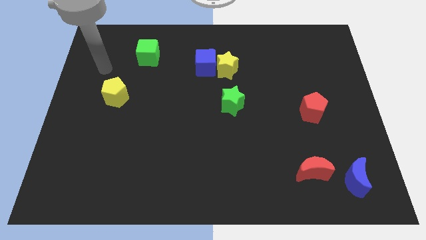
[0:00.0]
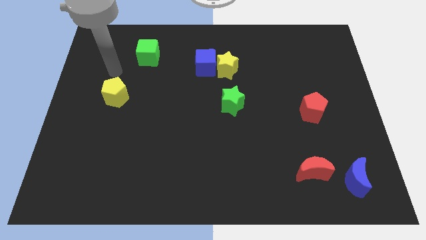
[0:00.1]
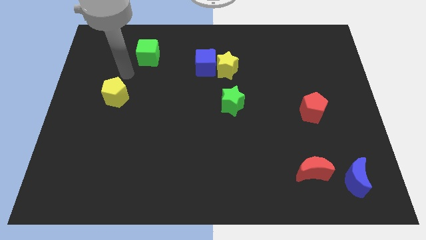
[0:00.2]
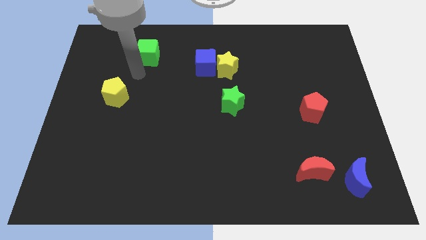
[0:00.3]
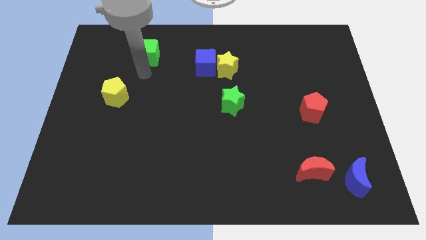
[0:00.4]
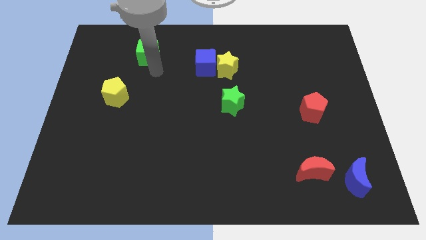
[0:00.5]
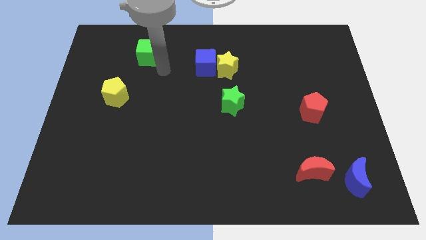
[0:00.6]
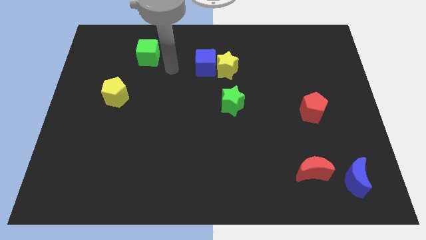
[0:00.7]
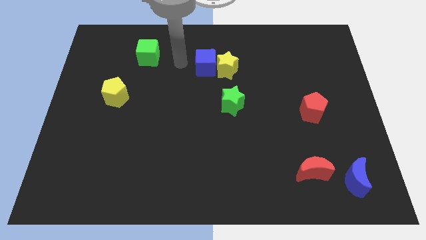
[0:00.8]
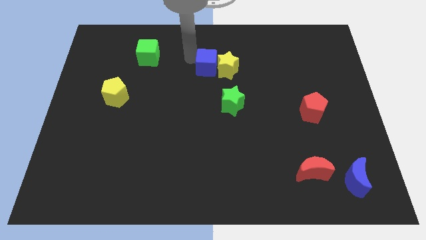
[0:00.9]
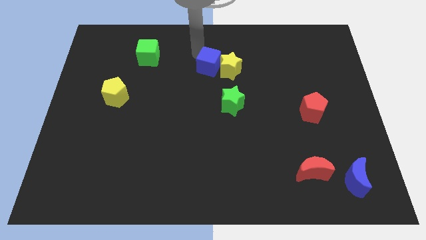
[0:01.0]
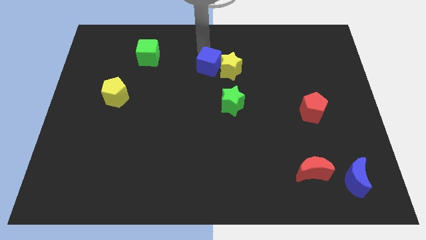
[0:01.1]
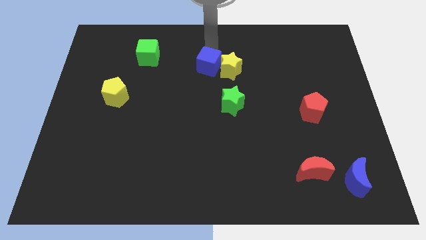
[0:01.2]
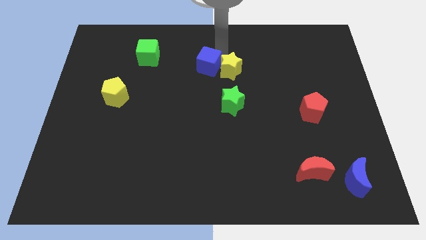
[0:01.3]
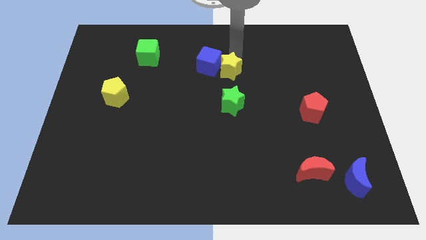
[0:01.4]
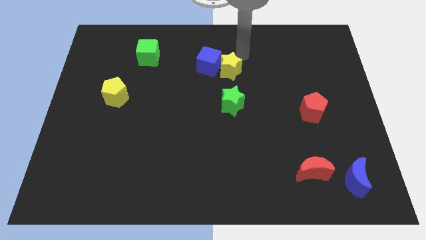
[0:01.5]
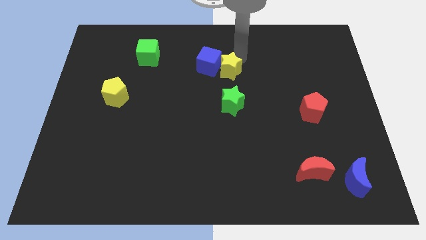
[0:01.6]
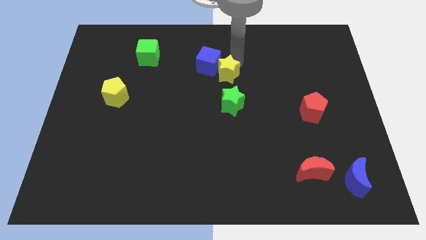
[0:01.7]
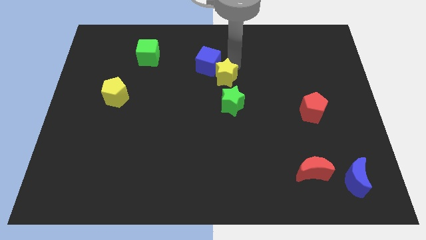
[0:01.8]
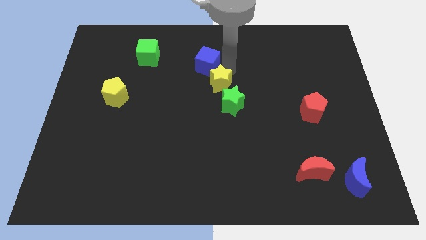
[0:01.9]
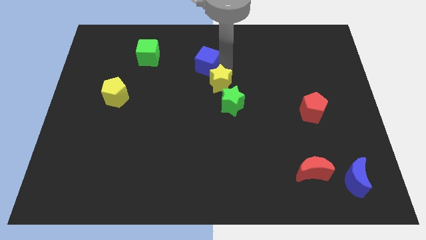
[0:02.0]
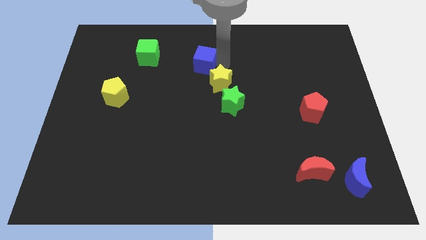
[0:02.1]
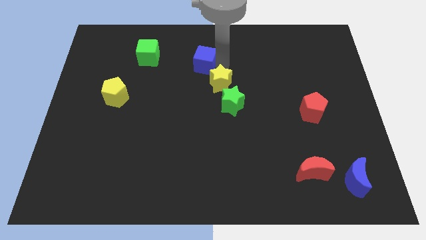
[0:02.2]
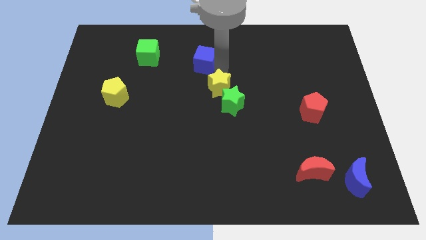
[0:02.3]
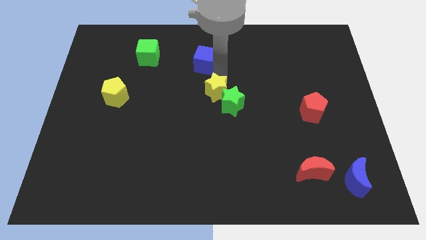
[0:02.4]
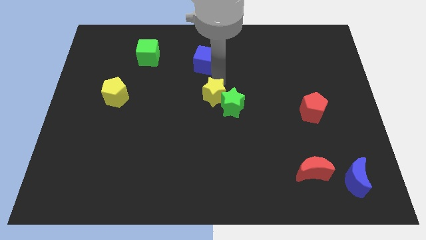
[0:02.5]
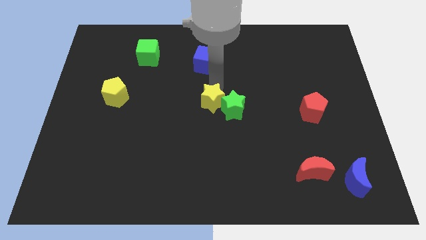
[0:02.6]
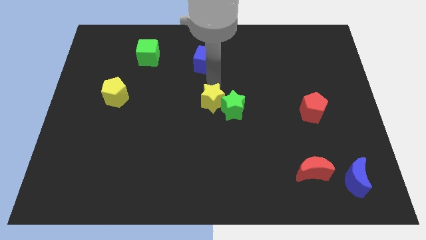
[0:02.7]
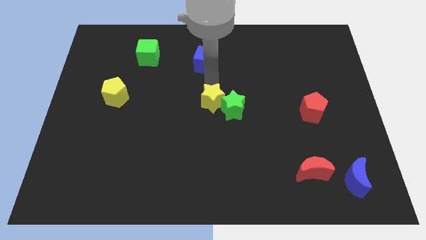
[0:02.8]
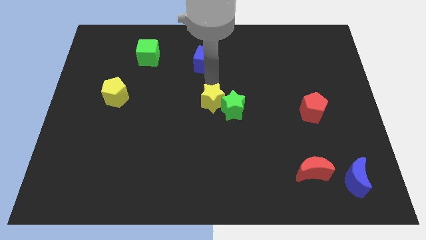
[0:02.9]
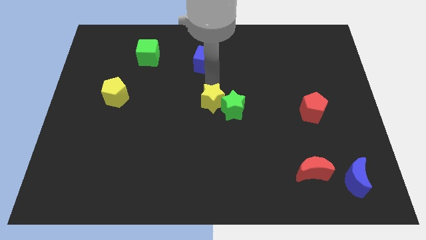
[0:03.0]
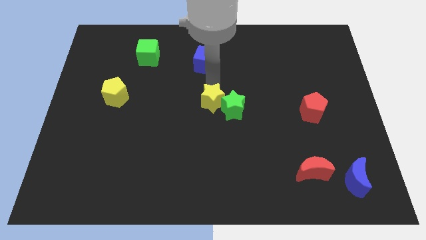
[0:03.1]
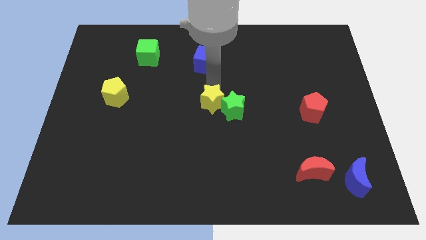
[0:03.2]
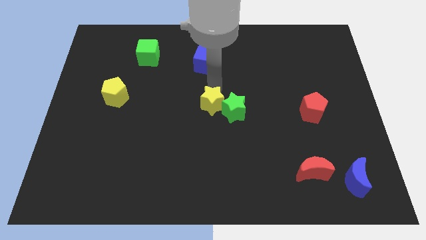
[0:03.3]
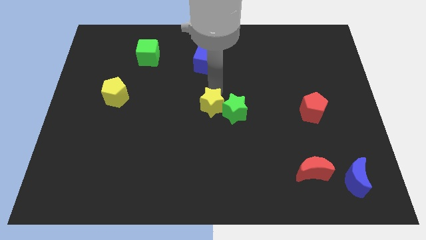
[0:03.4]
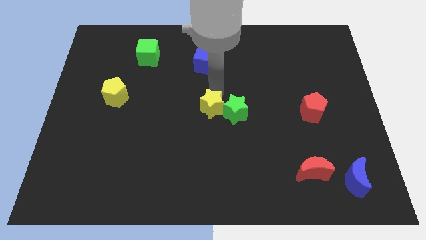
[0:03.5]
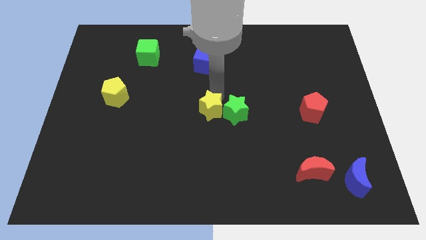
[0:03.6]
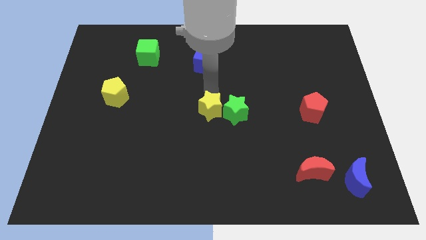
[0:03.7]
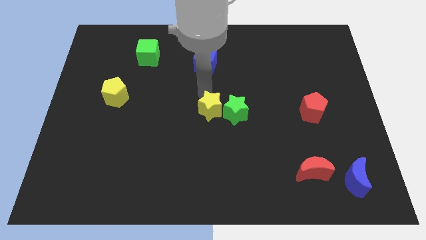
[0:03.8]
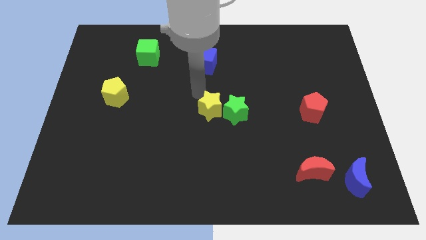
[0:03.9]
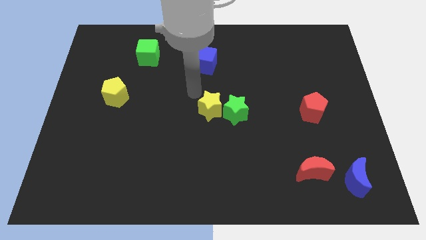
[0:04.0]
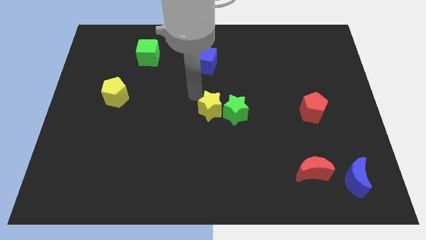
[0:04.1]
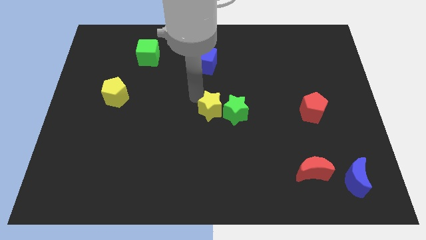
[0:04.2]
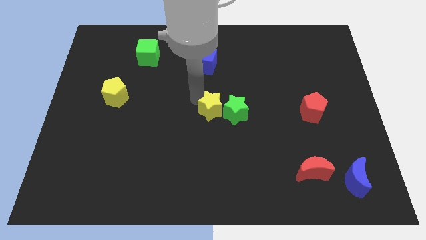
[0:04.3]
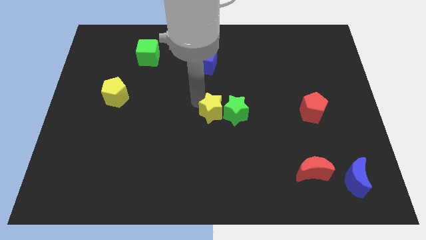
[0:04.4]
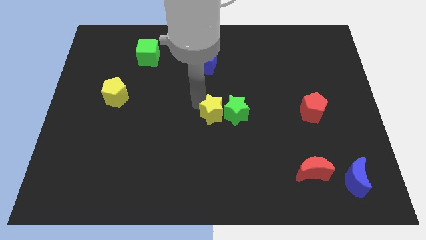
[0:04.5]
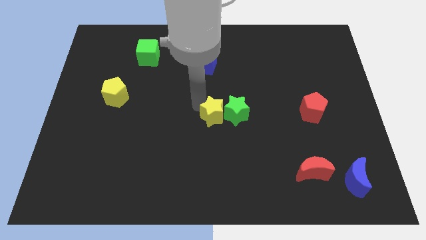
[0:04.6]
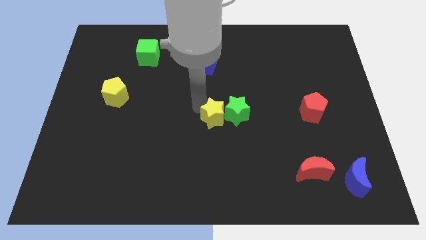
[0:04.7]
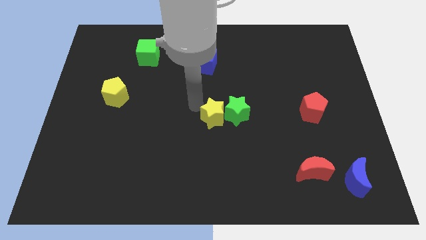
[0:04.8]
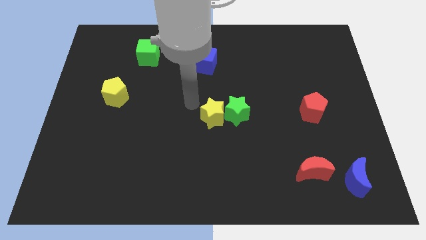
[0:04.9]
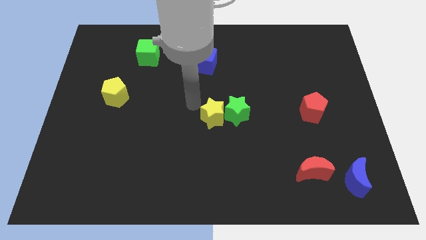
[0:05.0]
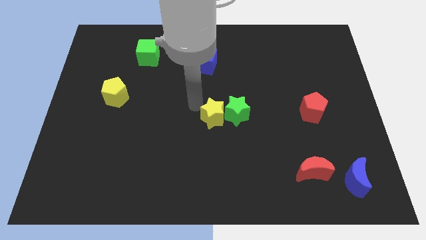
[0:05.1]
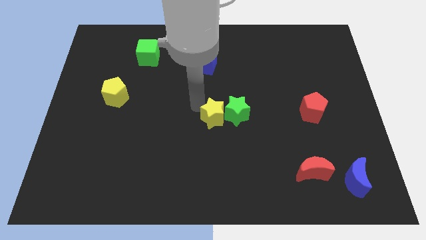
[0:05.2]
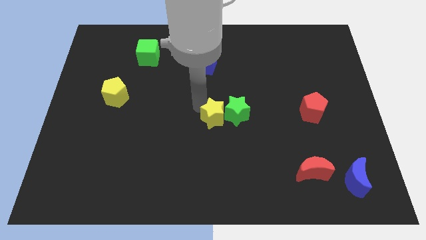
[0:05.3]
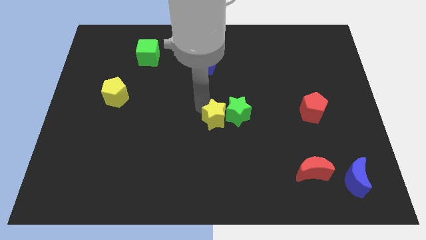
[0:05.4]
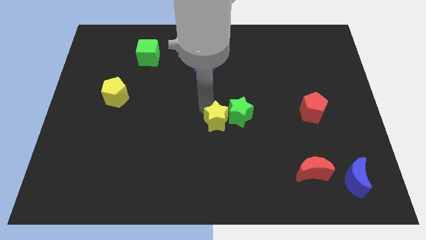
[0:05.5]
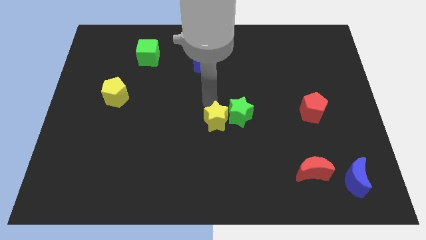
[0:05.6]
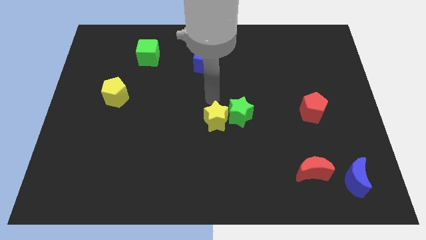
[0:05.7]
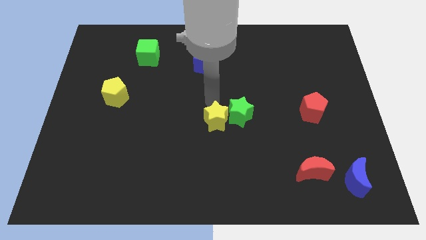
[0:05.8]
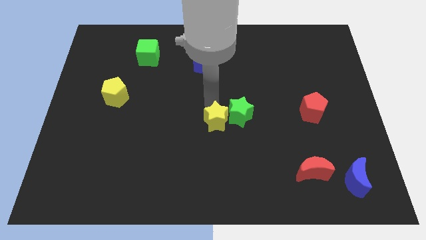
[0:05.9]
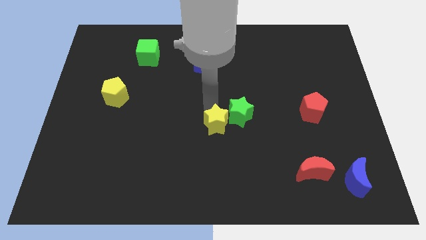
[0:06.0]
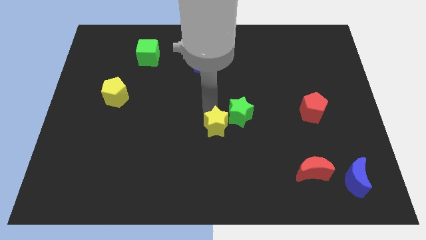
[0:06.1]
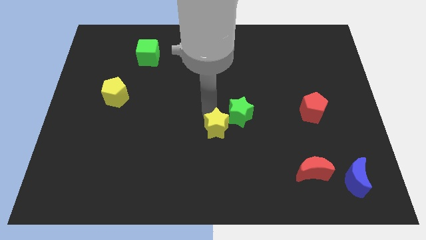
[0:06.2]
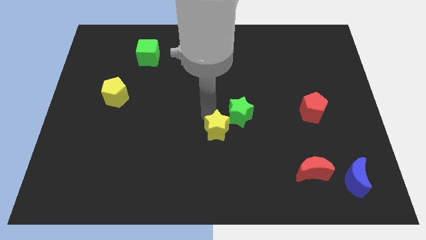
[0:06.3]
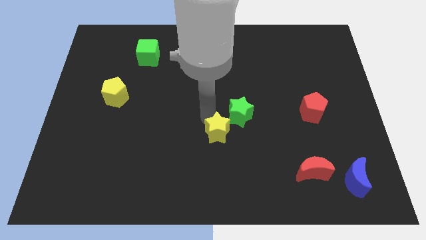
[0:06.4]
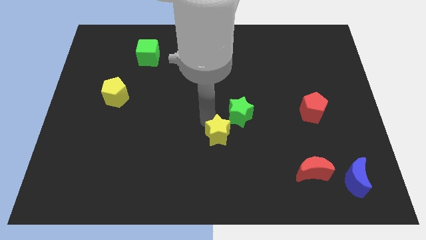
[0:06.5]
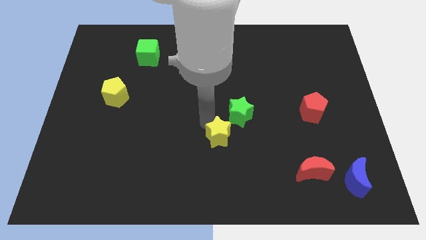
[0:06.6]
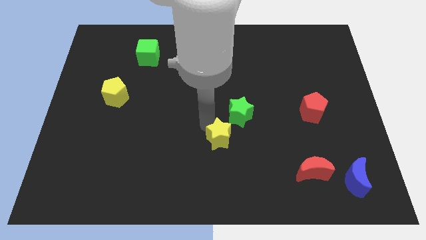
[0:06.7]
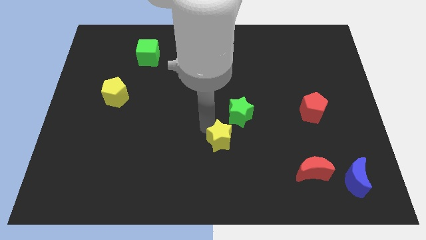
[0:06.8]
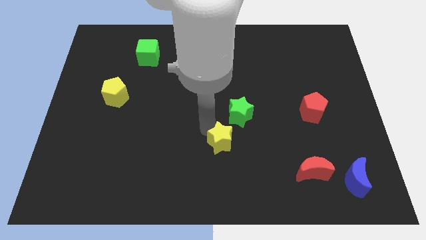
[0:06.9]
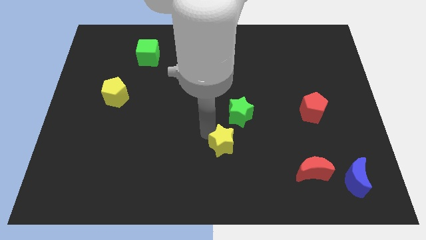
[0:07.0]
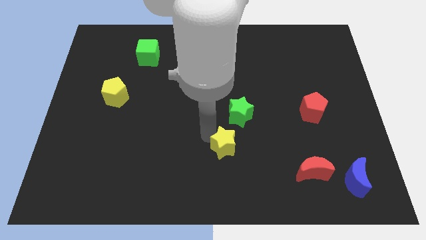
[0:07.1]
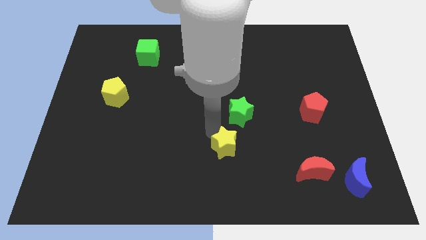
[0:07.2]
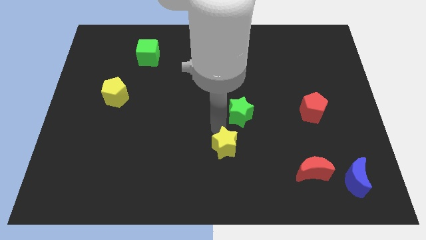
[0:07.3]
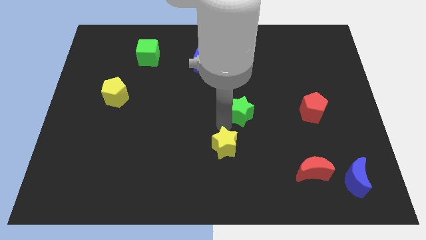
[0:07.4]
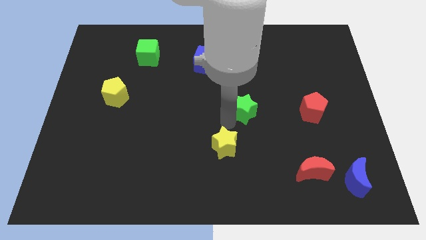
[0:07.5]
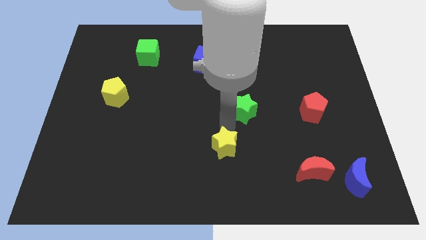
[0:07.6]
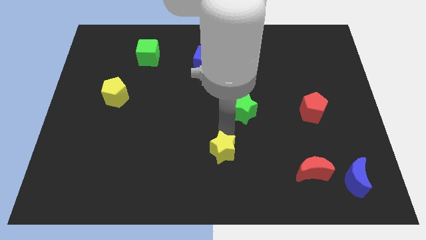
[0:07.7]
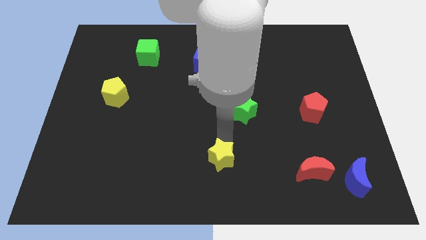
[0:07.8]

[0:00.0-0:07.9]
slide the yellow star to the bottom
